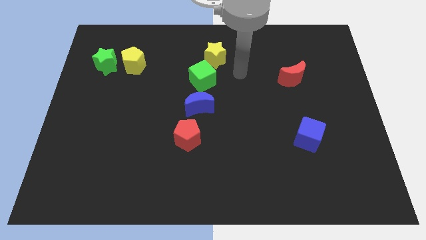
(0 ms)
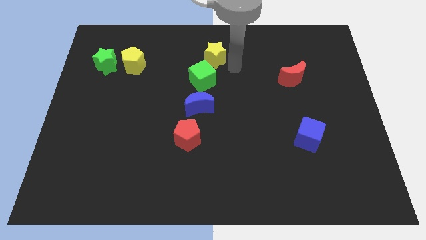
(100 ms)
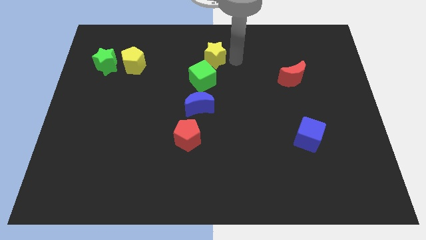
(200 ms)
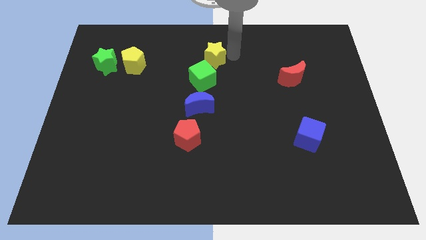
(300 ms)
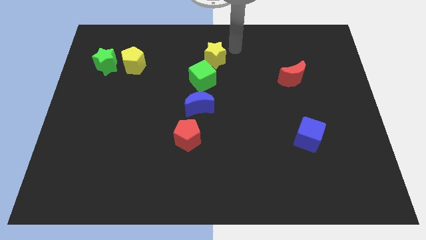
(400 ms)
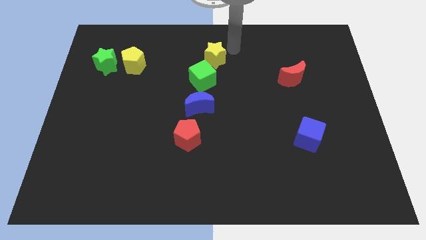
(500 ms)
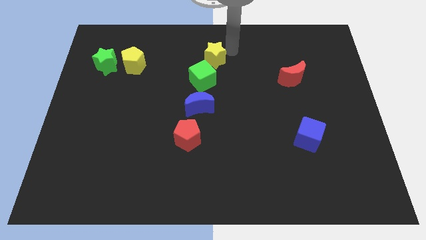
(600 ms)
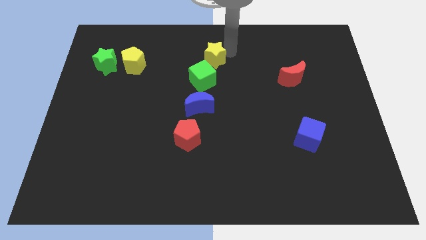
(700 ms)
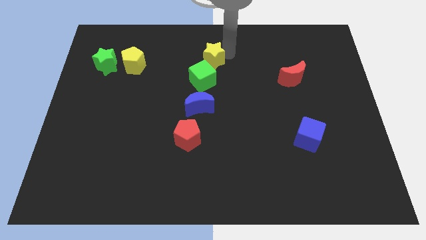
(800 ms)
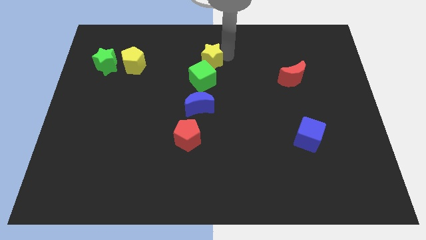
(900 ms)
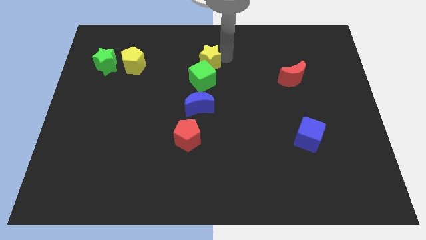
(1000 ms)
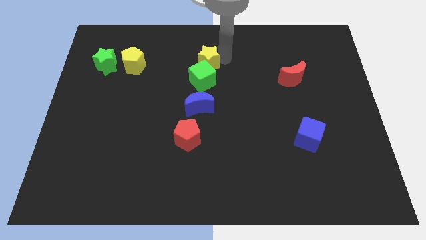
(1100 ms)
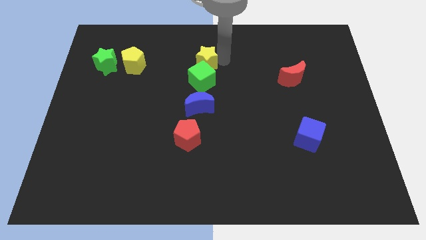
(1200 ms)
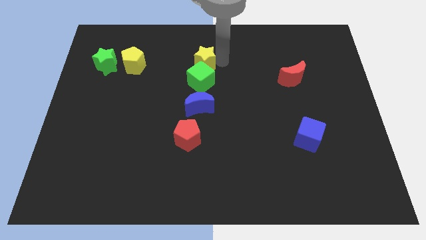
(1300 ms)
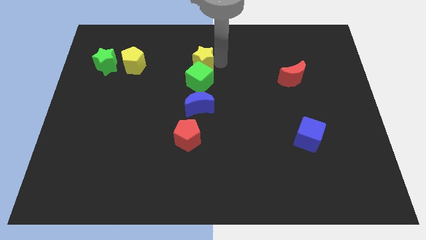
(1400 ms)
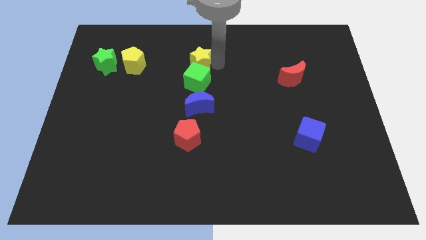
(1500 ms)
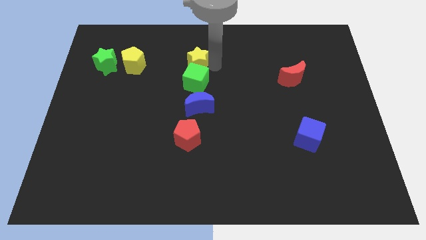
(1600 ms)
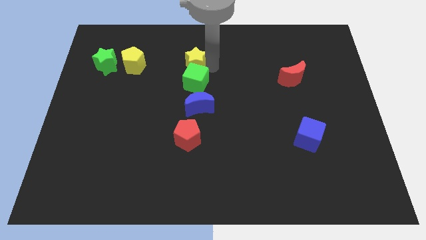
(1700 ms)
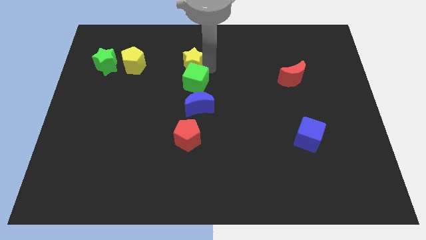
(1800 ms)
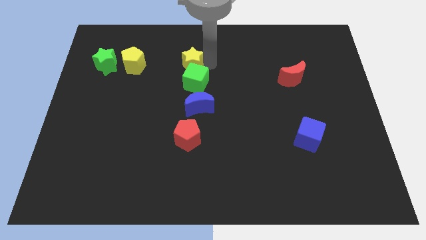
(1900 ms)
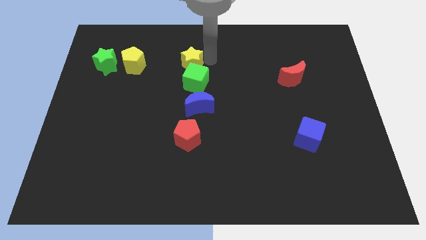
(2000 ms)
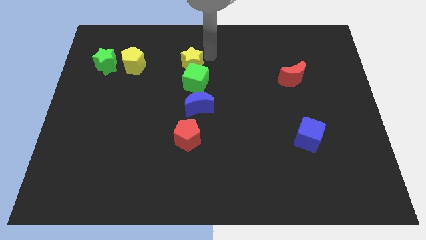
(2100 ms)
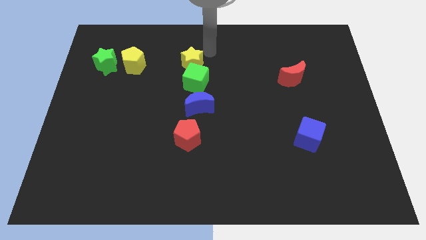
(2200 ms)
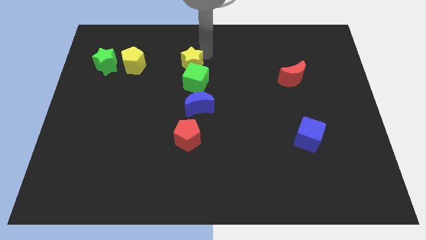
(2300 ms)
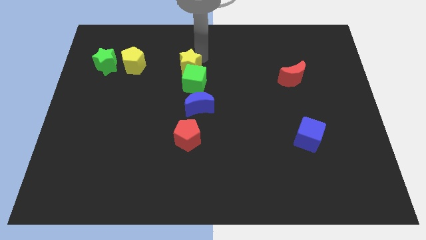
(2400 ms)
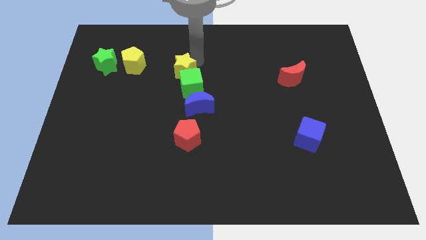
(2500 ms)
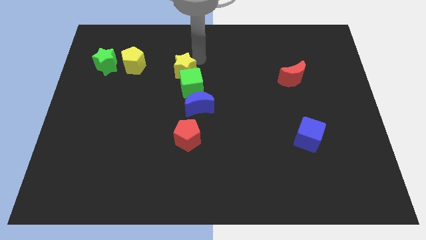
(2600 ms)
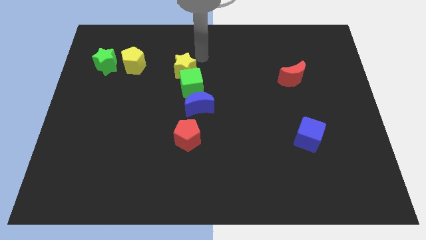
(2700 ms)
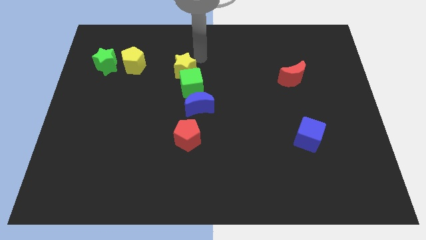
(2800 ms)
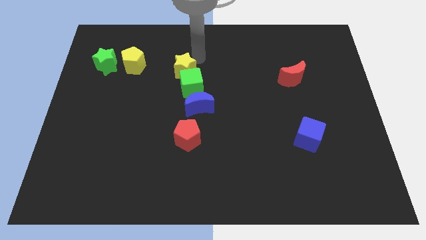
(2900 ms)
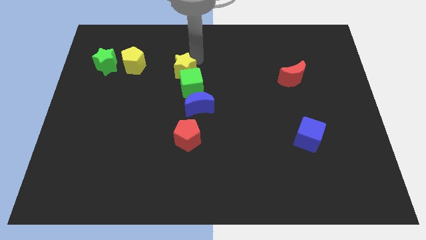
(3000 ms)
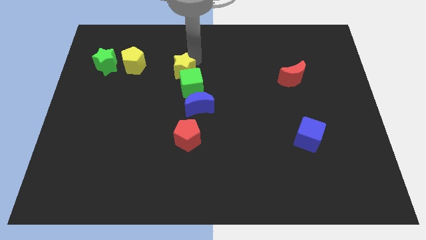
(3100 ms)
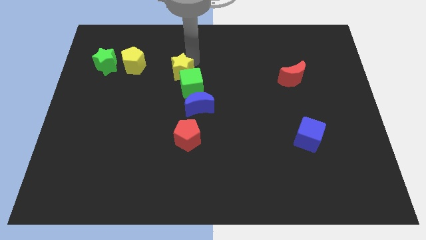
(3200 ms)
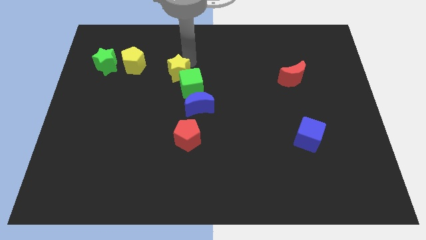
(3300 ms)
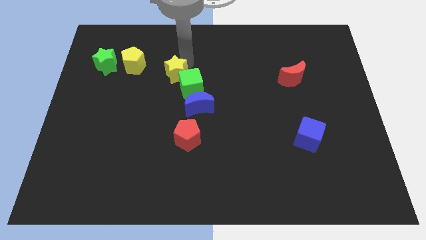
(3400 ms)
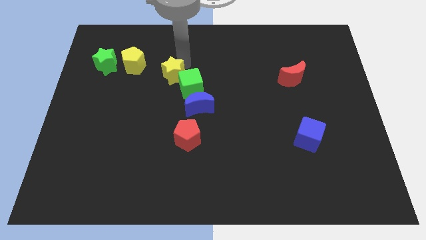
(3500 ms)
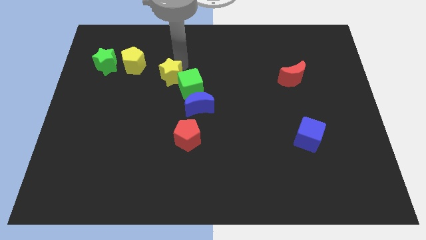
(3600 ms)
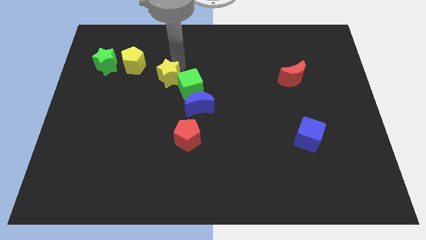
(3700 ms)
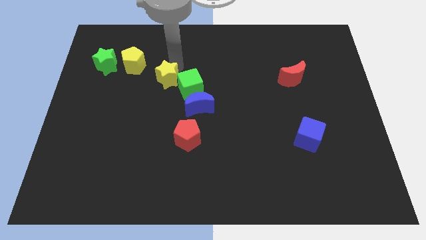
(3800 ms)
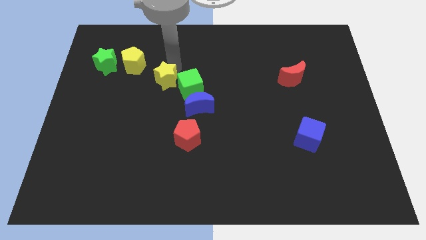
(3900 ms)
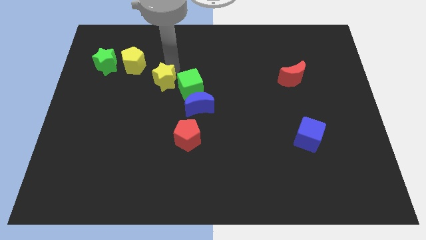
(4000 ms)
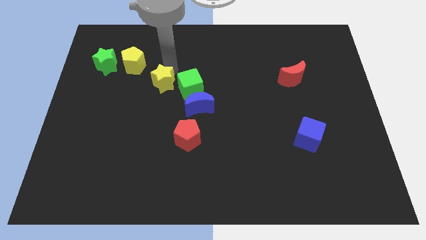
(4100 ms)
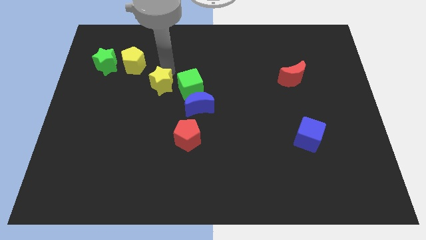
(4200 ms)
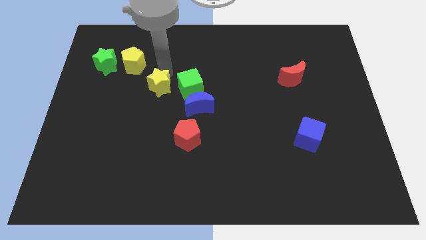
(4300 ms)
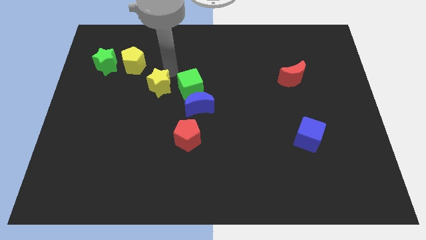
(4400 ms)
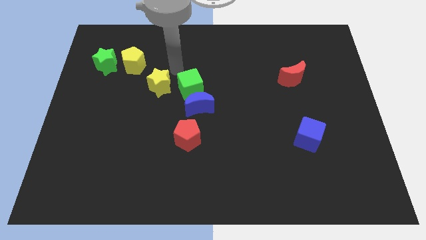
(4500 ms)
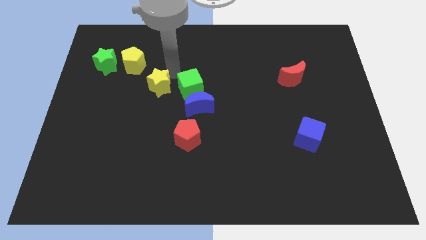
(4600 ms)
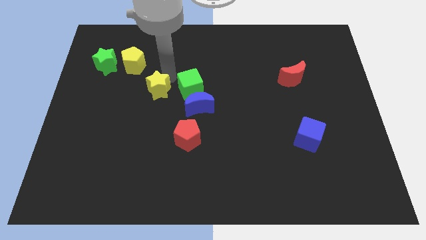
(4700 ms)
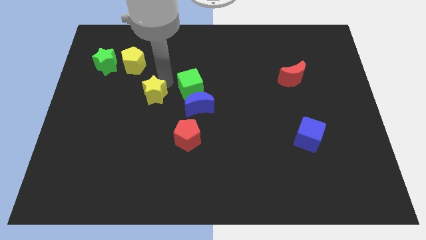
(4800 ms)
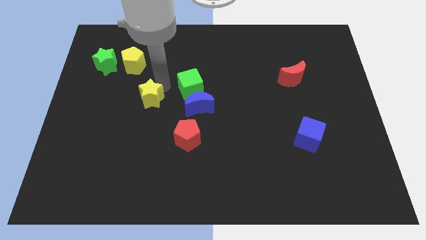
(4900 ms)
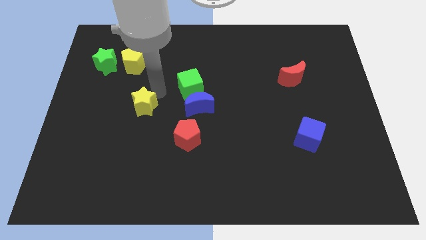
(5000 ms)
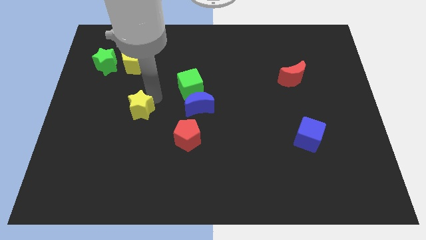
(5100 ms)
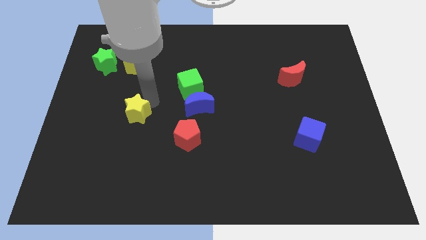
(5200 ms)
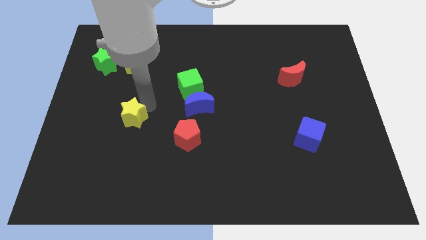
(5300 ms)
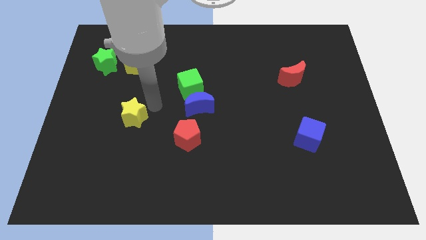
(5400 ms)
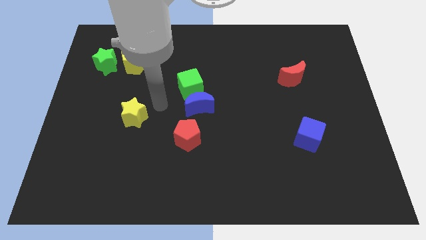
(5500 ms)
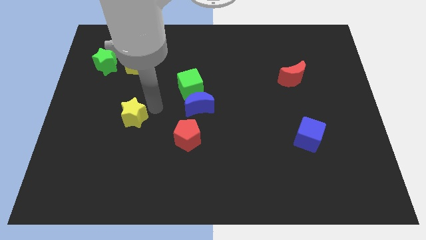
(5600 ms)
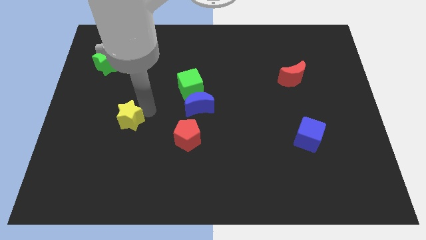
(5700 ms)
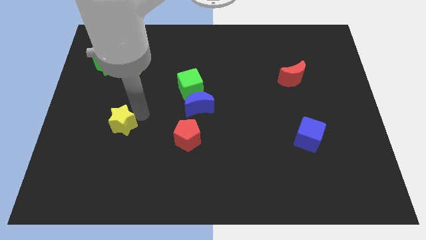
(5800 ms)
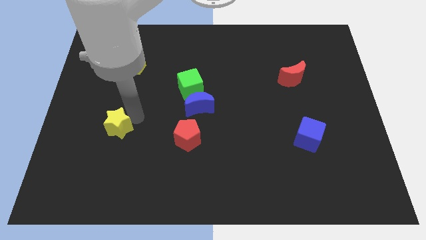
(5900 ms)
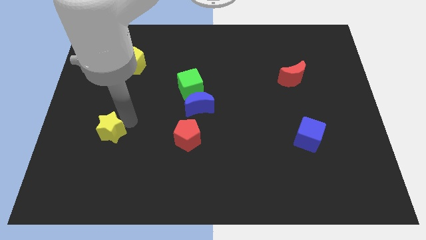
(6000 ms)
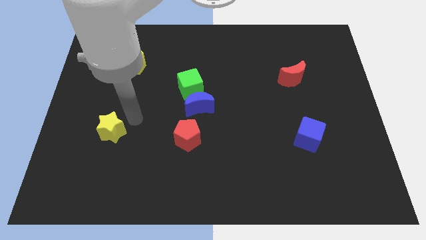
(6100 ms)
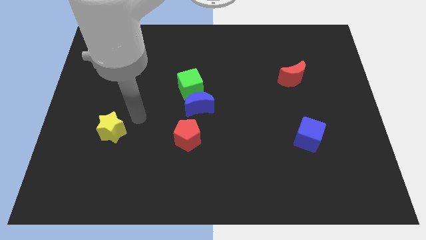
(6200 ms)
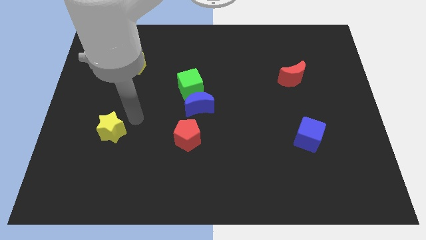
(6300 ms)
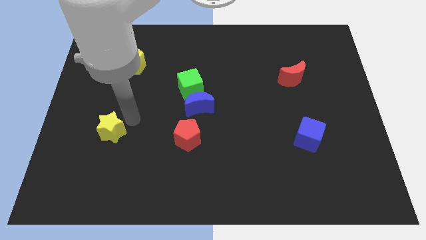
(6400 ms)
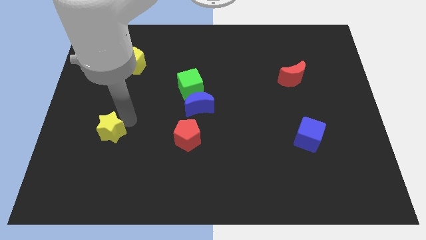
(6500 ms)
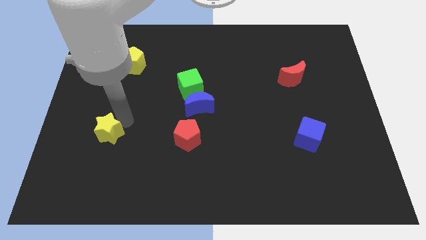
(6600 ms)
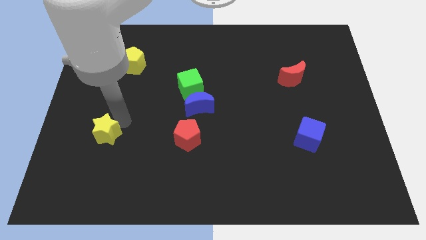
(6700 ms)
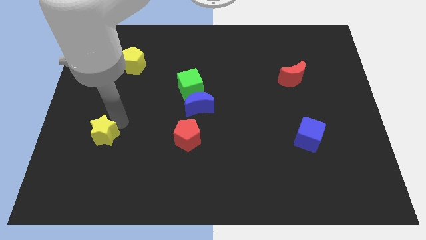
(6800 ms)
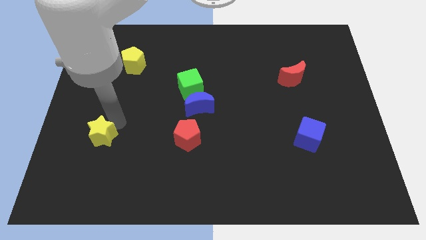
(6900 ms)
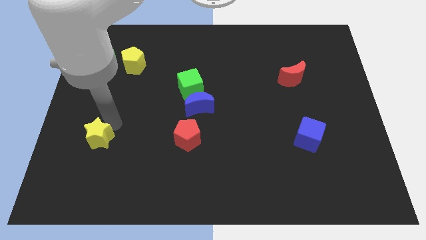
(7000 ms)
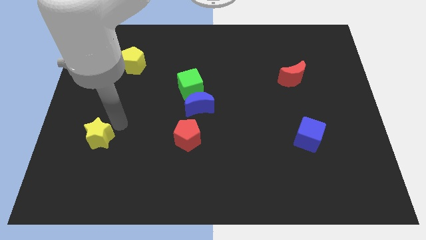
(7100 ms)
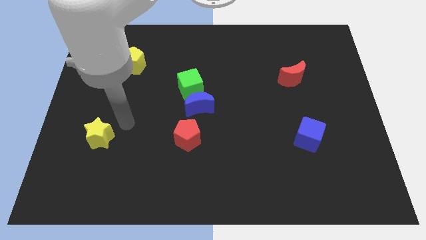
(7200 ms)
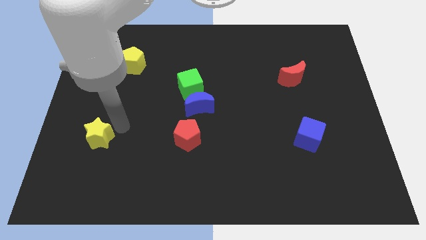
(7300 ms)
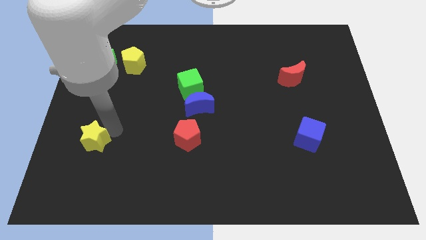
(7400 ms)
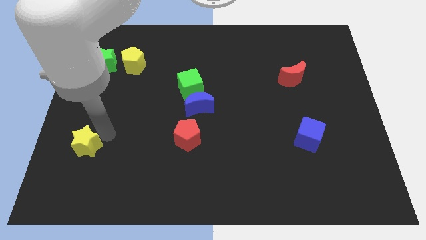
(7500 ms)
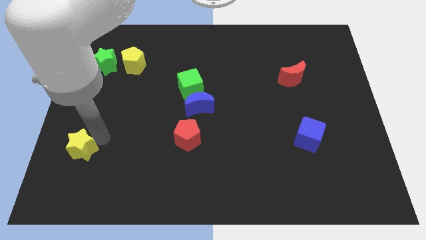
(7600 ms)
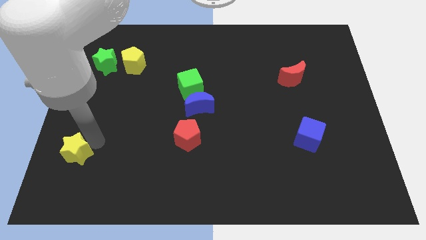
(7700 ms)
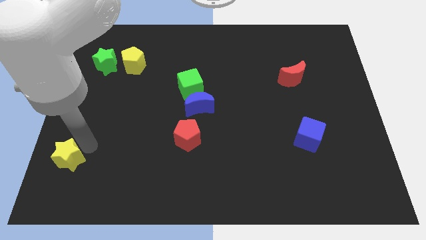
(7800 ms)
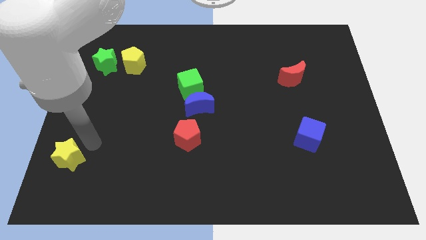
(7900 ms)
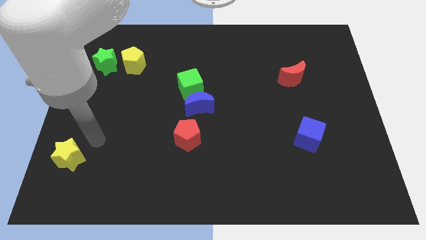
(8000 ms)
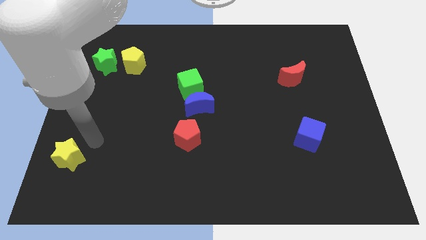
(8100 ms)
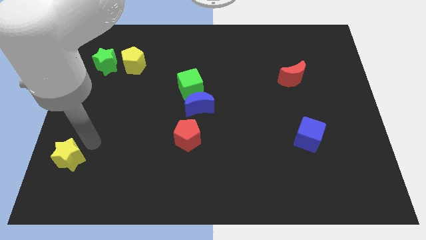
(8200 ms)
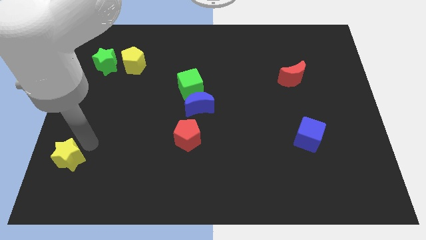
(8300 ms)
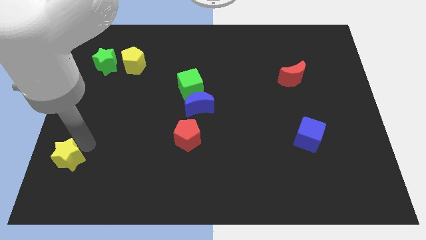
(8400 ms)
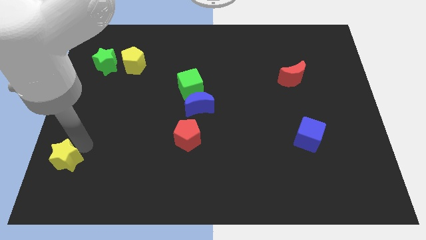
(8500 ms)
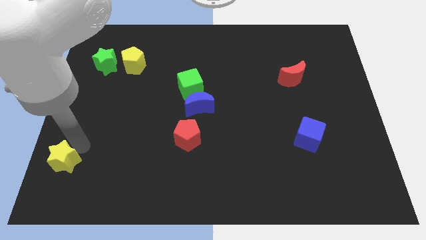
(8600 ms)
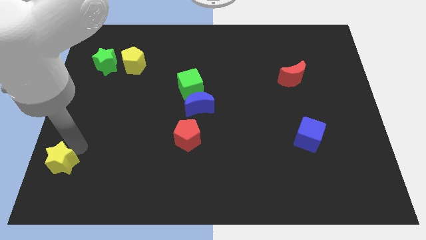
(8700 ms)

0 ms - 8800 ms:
slide the yellow star to the bottom left of the board
